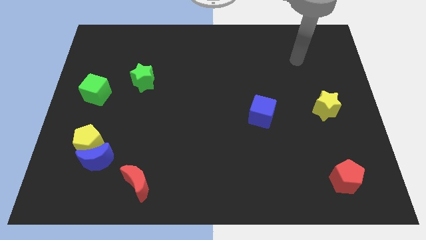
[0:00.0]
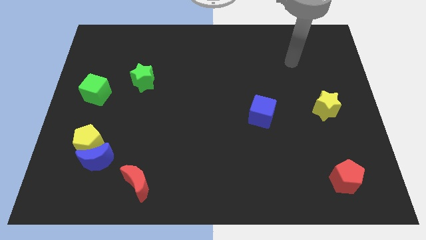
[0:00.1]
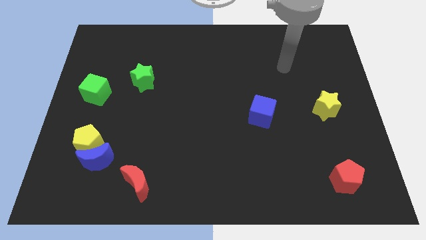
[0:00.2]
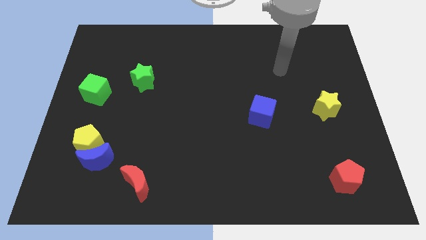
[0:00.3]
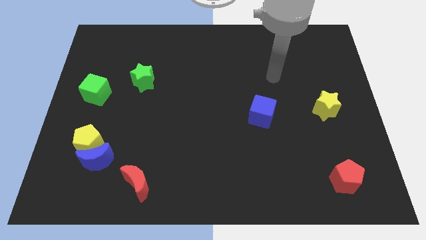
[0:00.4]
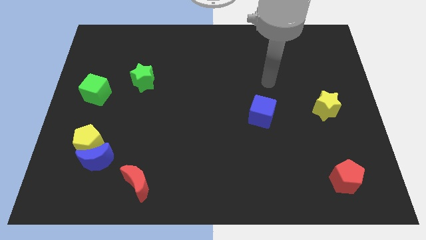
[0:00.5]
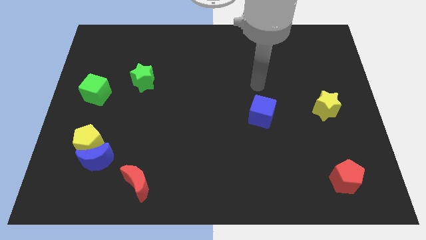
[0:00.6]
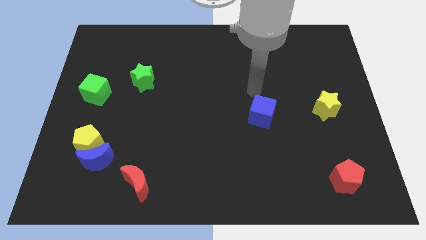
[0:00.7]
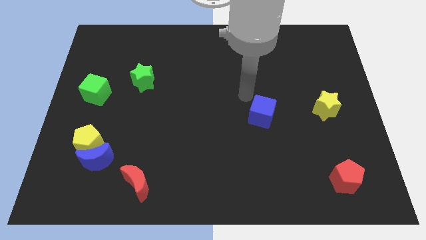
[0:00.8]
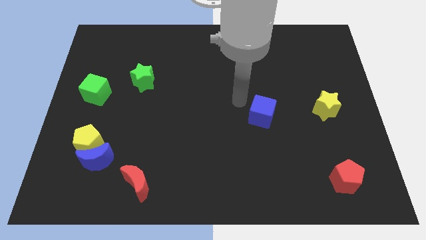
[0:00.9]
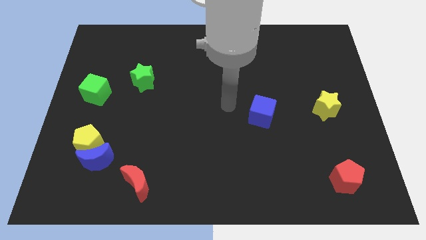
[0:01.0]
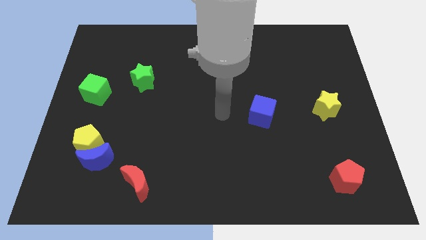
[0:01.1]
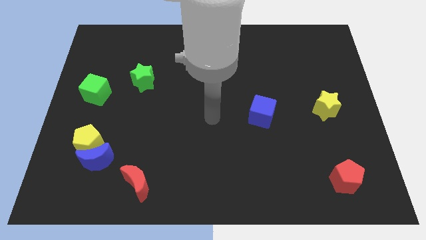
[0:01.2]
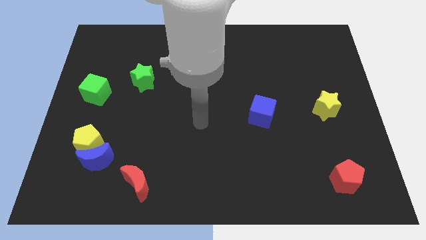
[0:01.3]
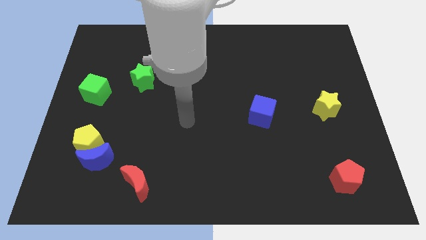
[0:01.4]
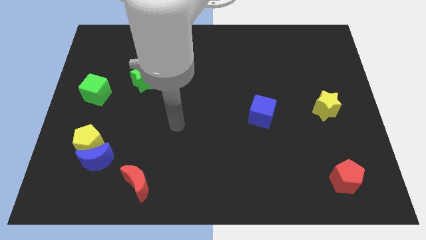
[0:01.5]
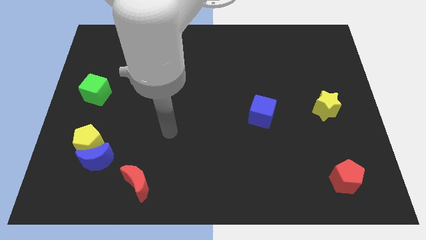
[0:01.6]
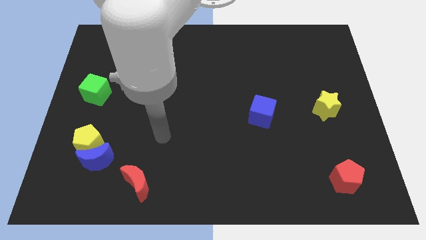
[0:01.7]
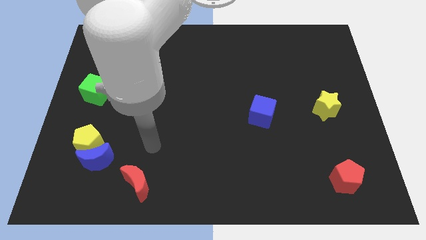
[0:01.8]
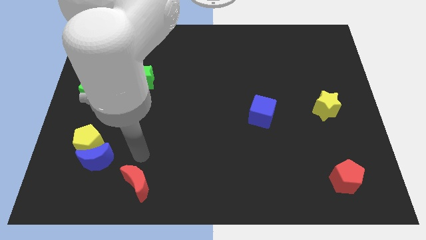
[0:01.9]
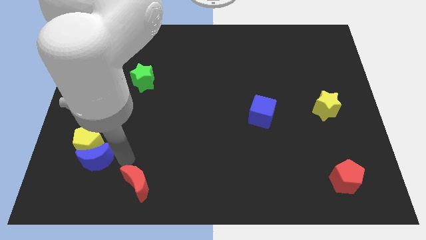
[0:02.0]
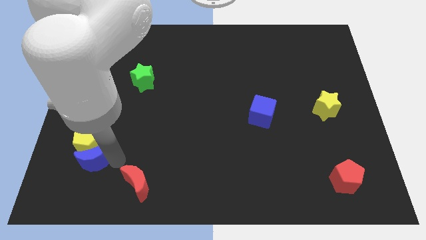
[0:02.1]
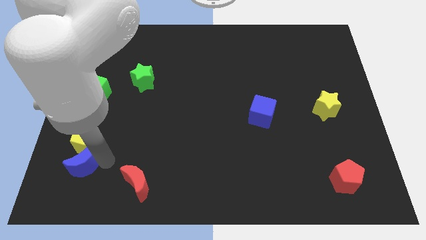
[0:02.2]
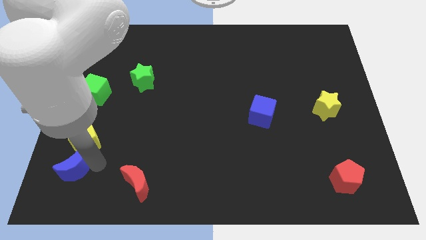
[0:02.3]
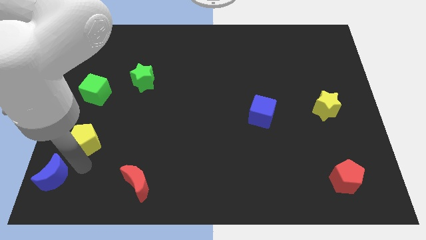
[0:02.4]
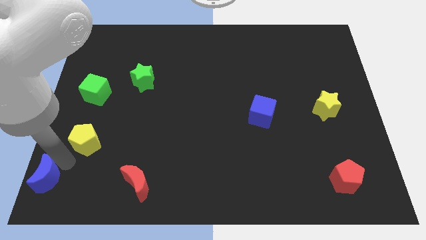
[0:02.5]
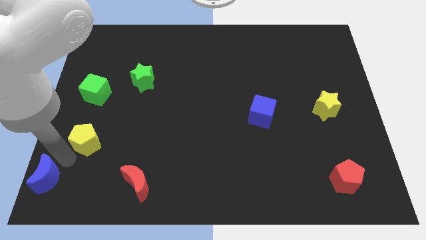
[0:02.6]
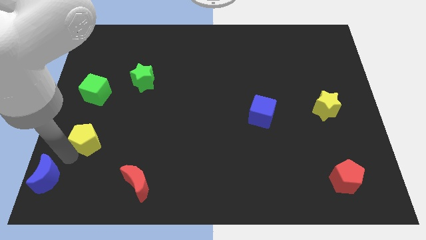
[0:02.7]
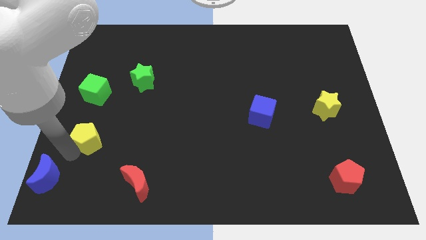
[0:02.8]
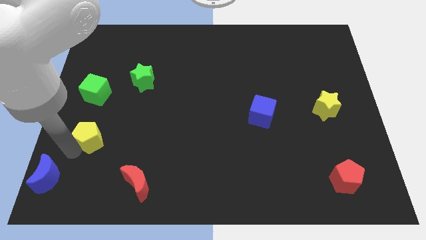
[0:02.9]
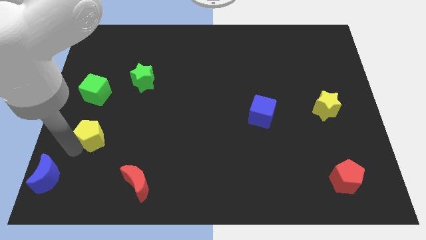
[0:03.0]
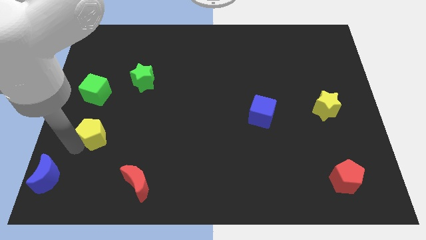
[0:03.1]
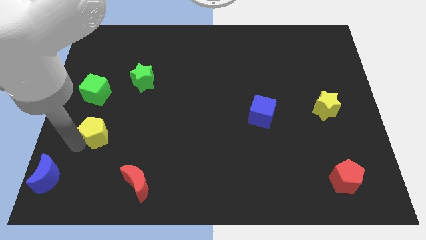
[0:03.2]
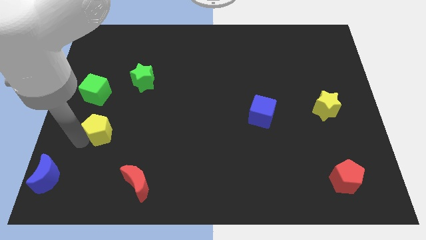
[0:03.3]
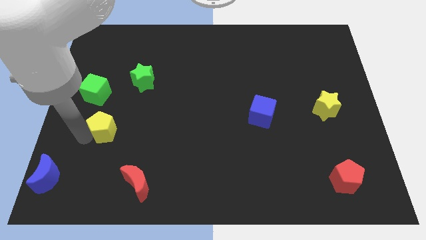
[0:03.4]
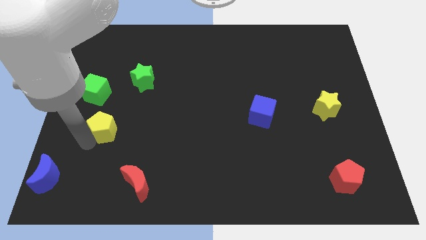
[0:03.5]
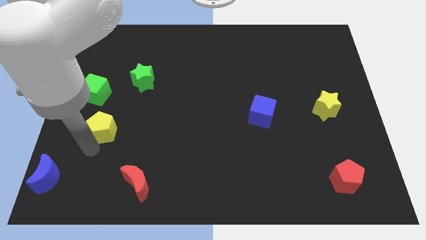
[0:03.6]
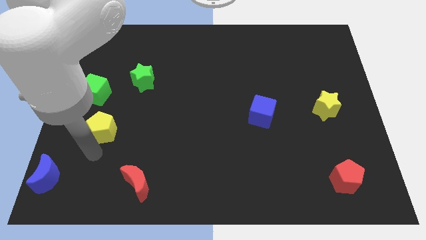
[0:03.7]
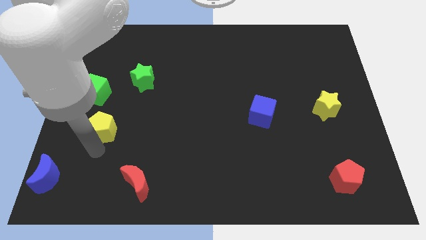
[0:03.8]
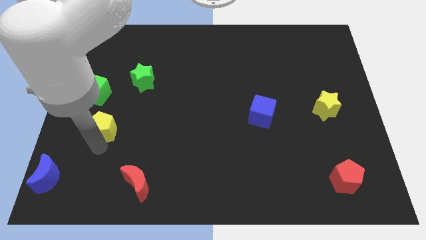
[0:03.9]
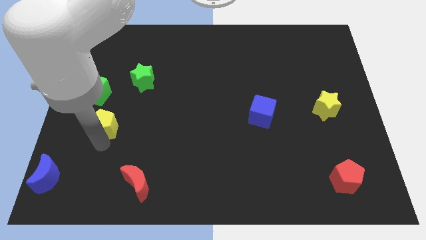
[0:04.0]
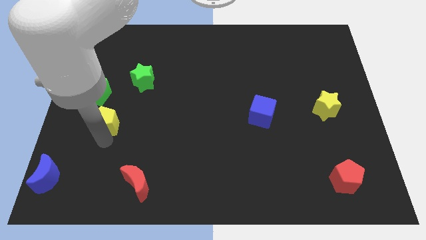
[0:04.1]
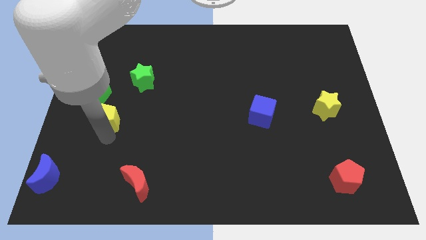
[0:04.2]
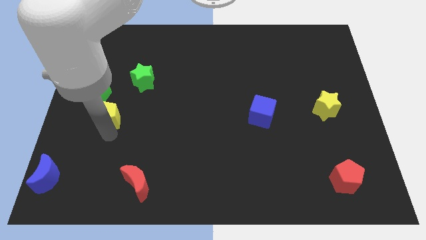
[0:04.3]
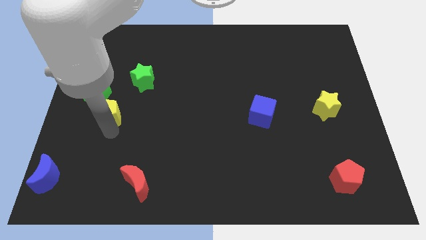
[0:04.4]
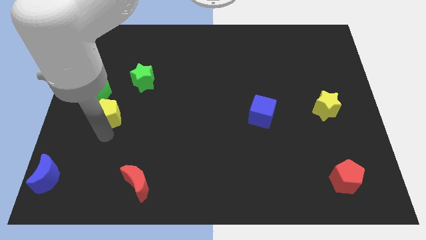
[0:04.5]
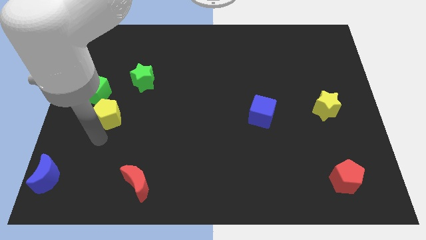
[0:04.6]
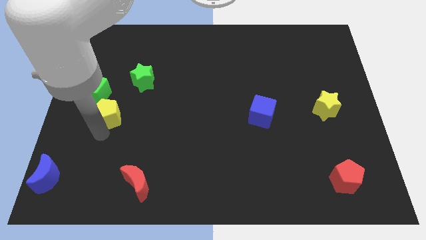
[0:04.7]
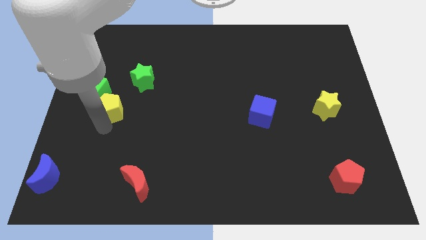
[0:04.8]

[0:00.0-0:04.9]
move the yellow pentagon diagonally down and to the left of the green star

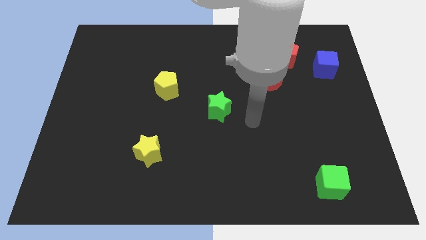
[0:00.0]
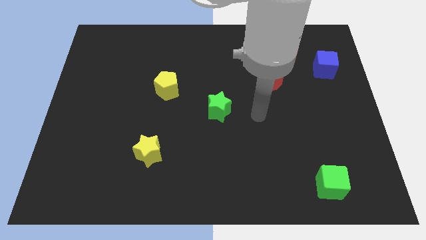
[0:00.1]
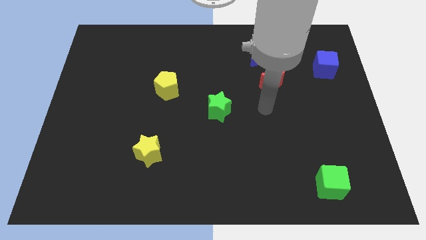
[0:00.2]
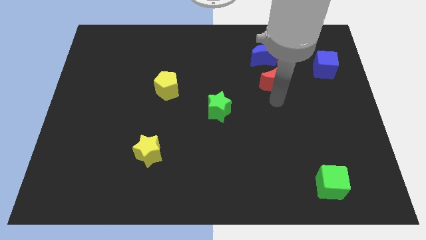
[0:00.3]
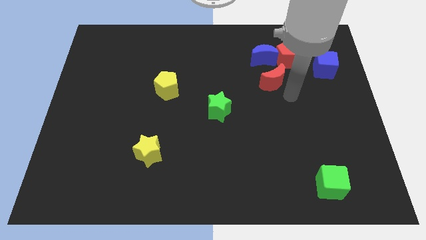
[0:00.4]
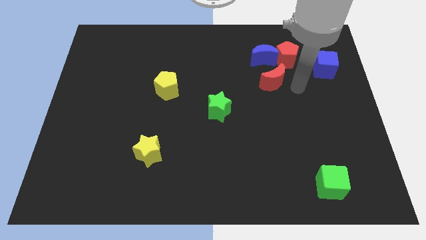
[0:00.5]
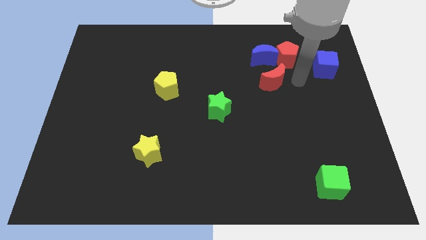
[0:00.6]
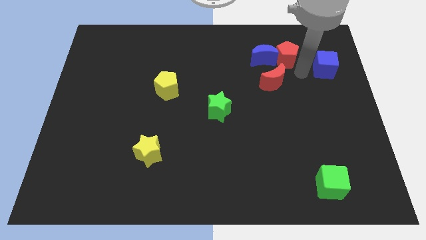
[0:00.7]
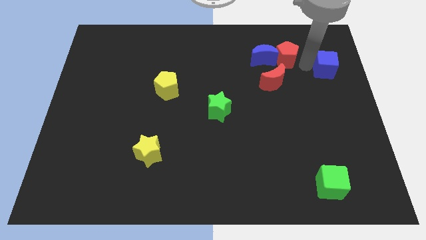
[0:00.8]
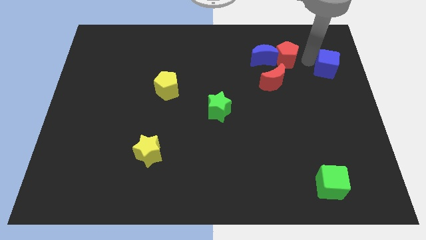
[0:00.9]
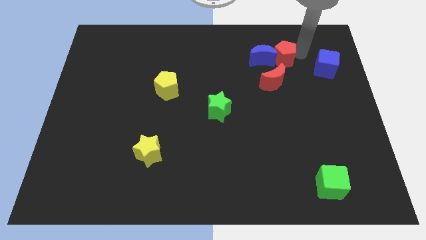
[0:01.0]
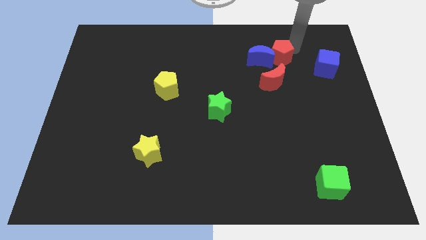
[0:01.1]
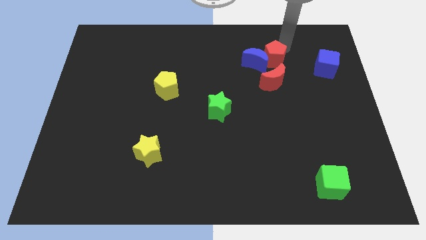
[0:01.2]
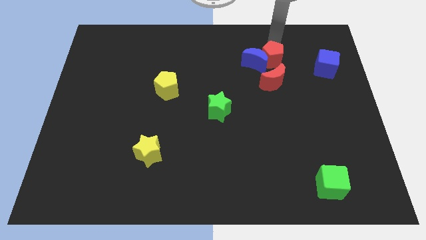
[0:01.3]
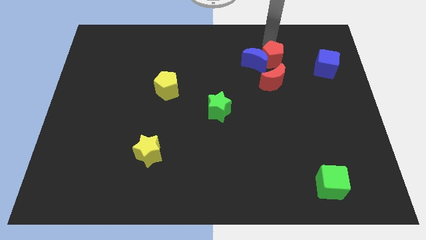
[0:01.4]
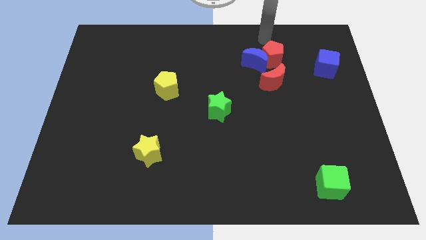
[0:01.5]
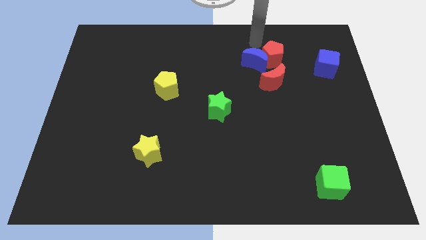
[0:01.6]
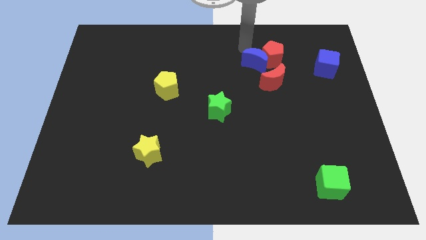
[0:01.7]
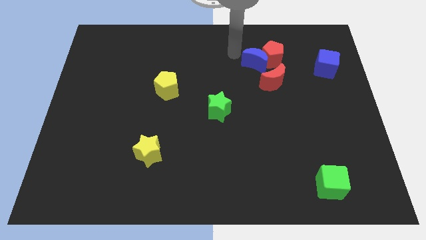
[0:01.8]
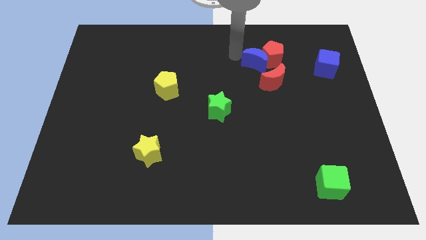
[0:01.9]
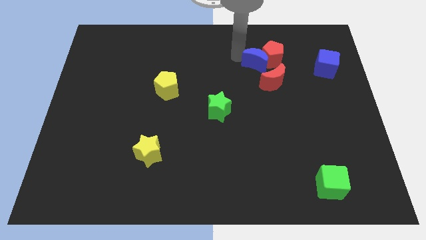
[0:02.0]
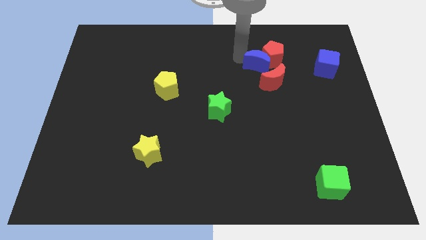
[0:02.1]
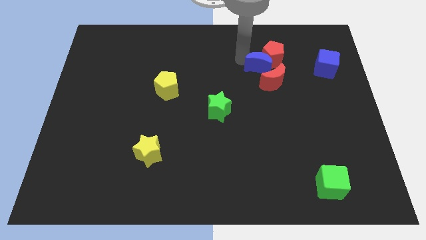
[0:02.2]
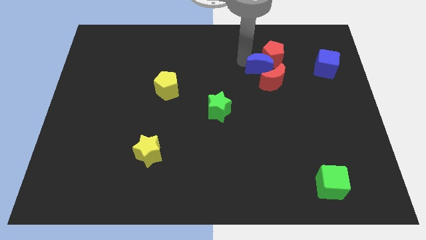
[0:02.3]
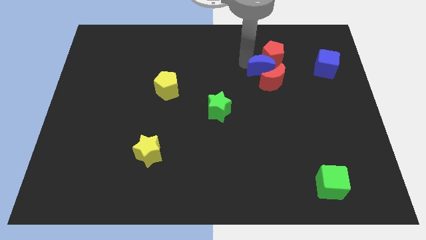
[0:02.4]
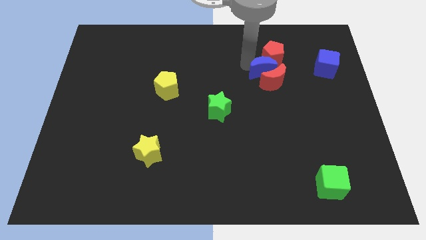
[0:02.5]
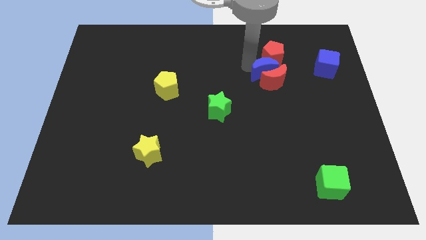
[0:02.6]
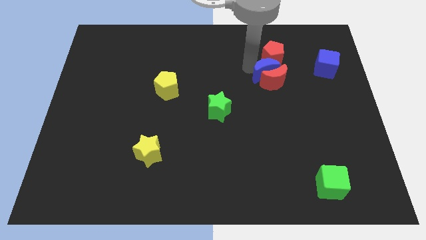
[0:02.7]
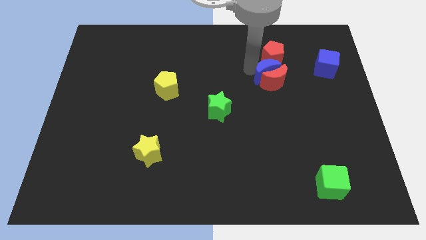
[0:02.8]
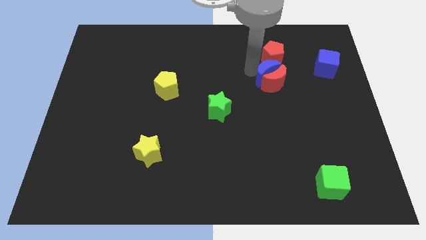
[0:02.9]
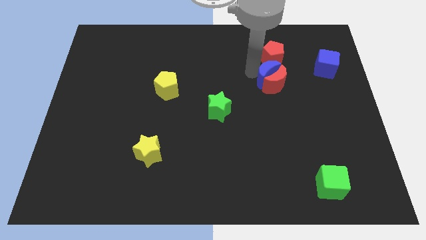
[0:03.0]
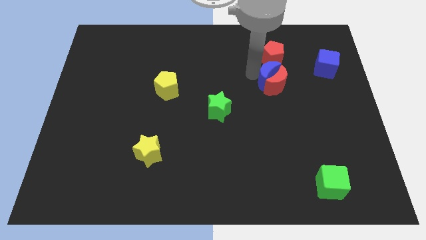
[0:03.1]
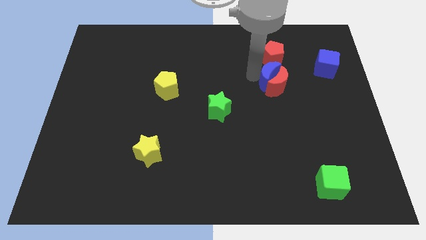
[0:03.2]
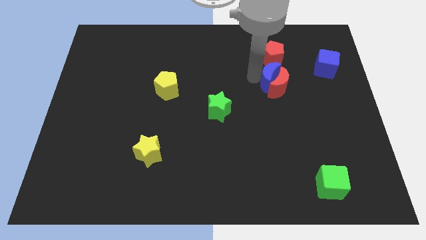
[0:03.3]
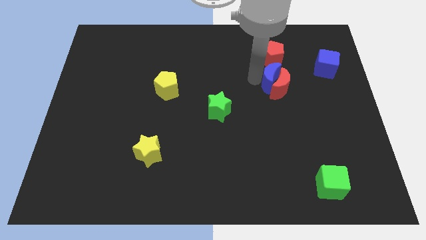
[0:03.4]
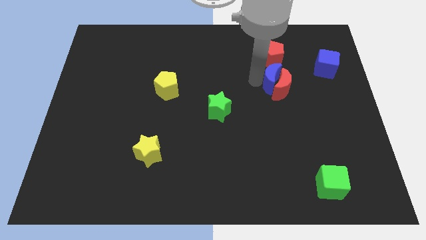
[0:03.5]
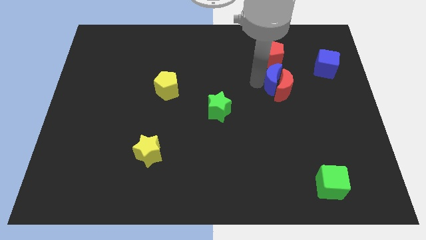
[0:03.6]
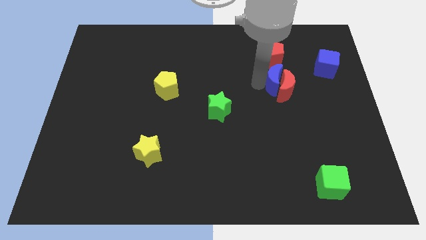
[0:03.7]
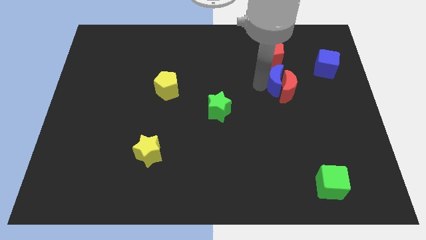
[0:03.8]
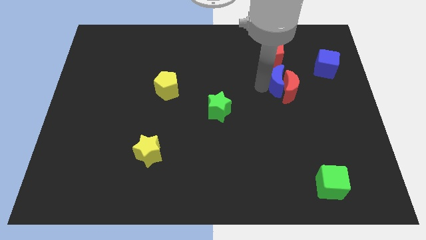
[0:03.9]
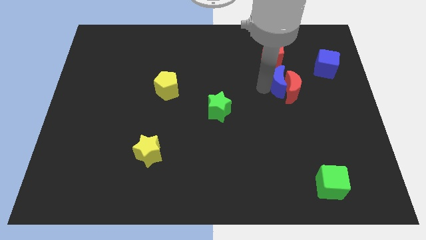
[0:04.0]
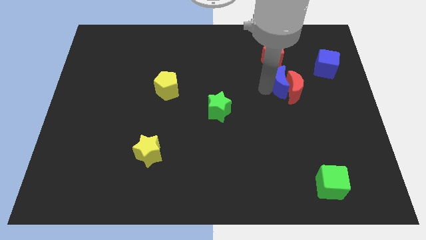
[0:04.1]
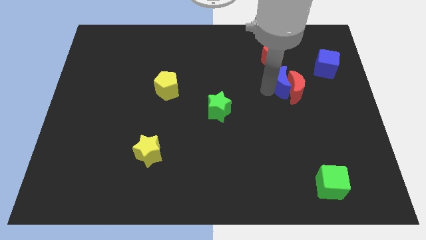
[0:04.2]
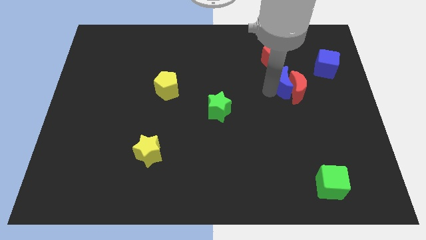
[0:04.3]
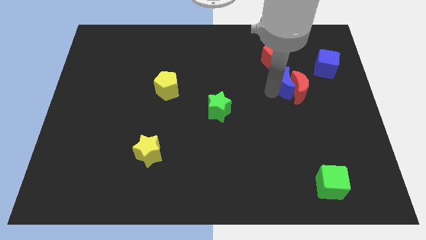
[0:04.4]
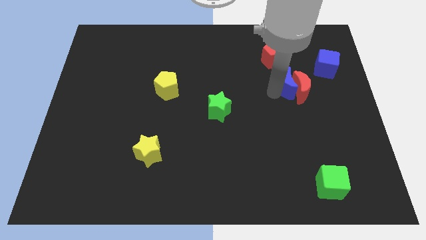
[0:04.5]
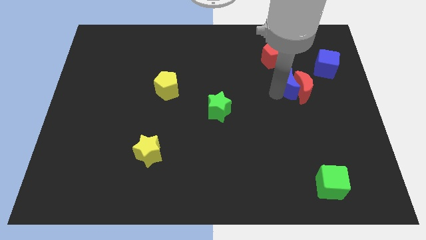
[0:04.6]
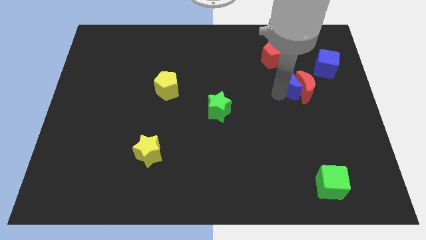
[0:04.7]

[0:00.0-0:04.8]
move the blue moon to the bottom left side of the blue cube
